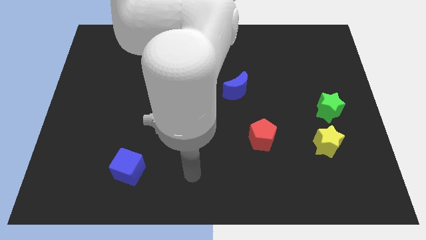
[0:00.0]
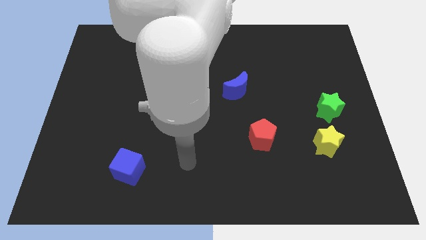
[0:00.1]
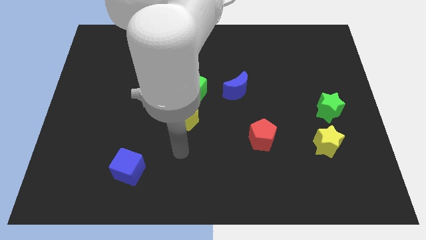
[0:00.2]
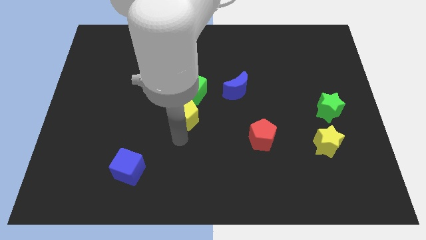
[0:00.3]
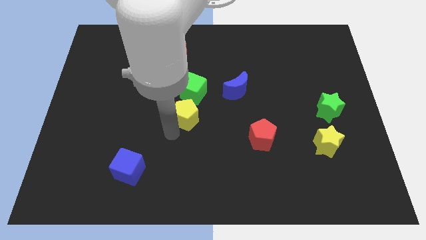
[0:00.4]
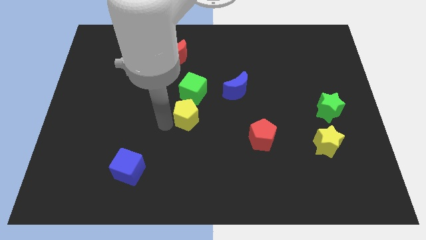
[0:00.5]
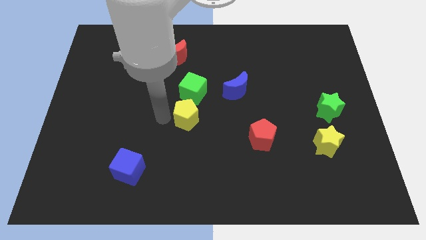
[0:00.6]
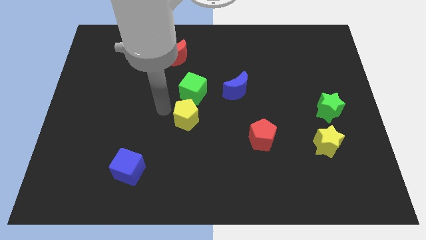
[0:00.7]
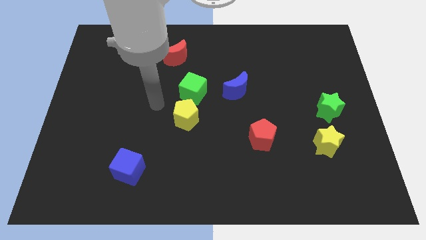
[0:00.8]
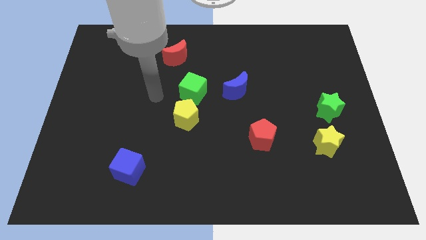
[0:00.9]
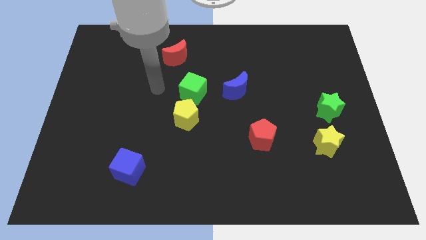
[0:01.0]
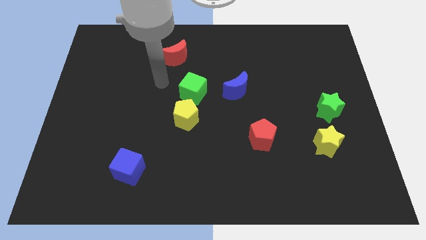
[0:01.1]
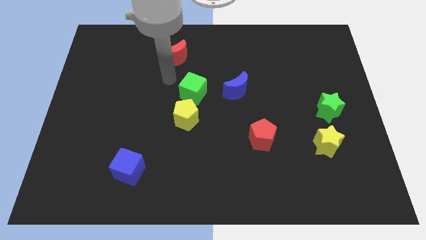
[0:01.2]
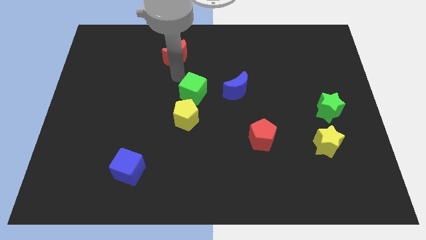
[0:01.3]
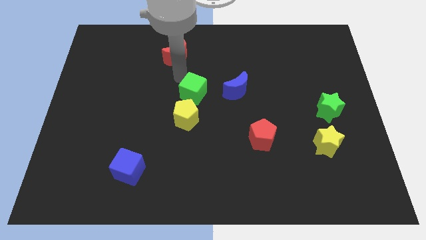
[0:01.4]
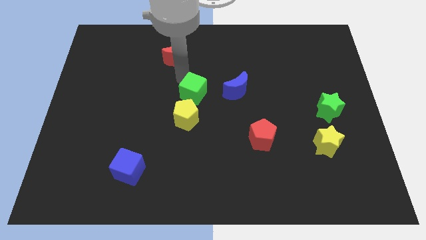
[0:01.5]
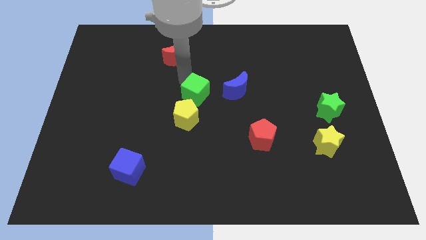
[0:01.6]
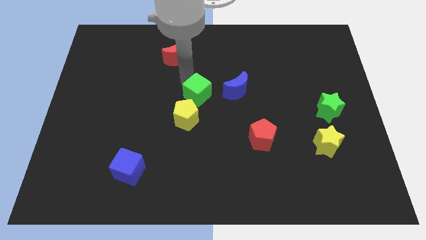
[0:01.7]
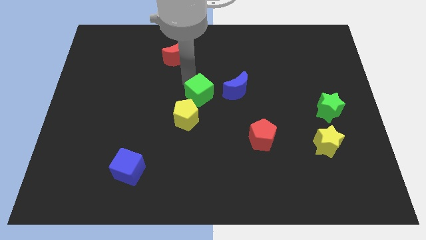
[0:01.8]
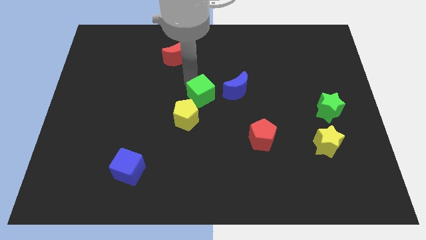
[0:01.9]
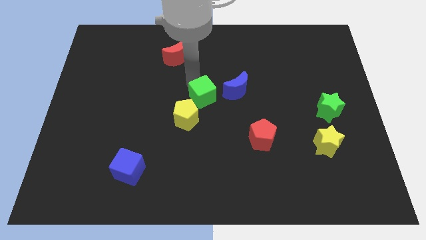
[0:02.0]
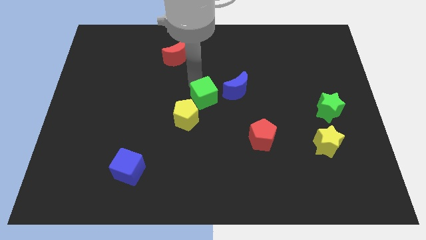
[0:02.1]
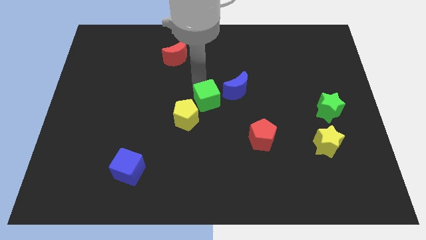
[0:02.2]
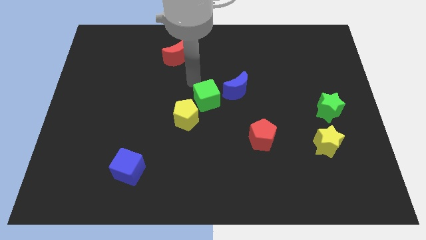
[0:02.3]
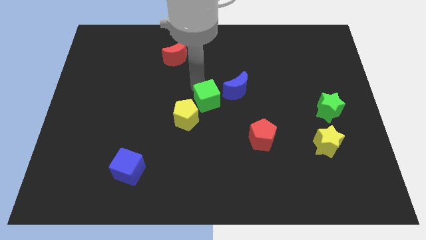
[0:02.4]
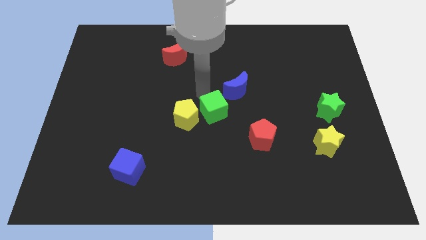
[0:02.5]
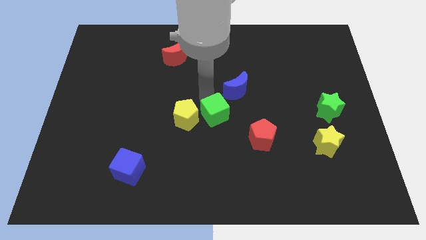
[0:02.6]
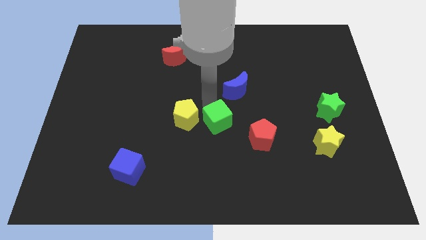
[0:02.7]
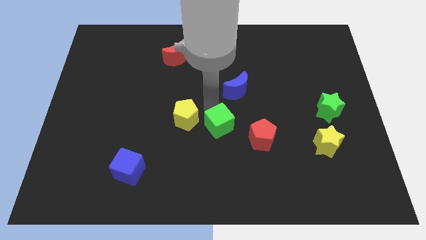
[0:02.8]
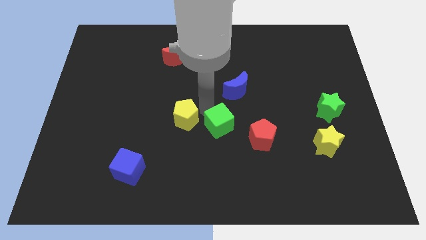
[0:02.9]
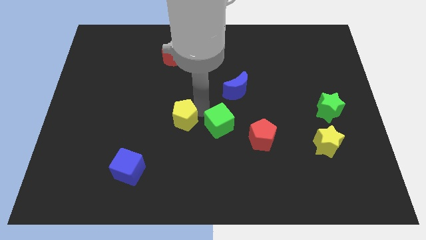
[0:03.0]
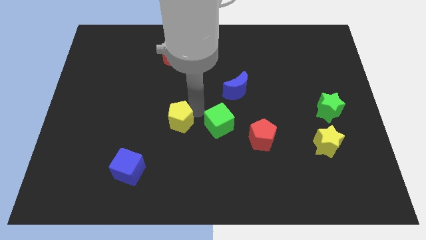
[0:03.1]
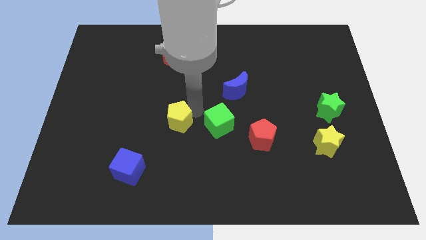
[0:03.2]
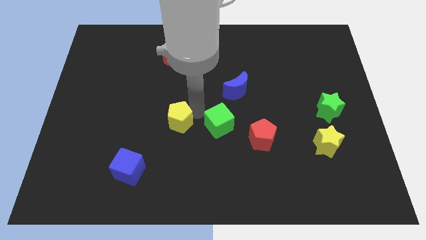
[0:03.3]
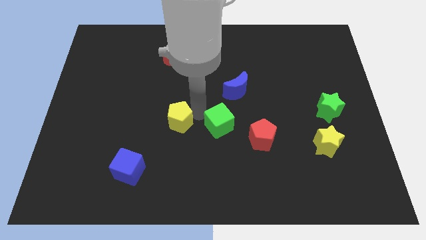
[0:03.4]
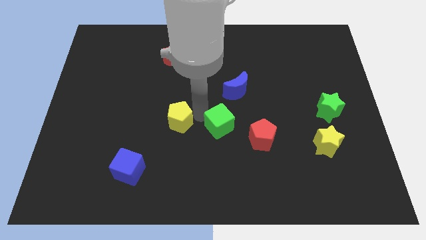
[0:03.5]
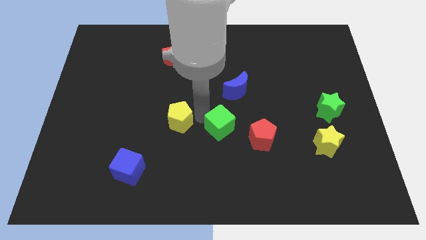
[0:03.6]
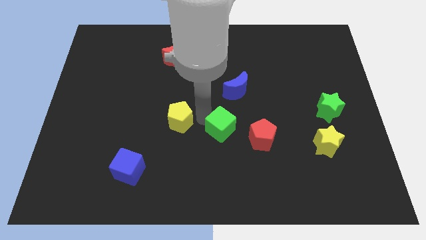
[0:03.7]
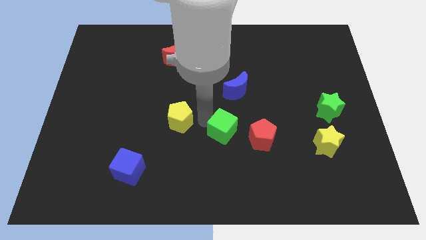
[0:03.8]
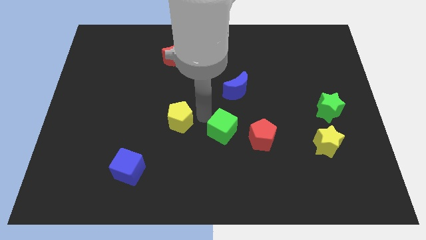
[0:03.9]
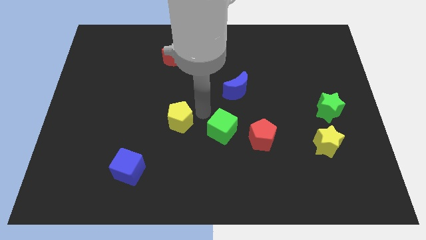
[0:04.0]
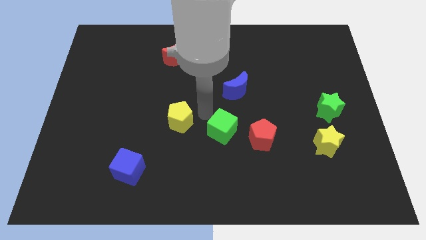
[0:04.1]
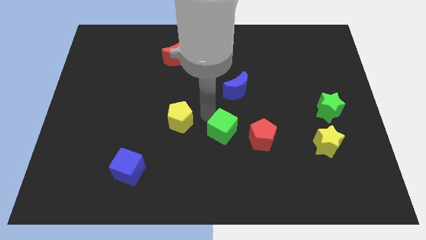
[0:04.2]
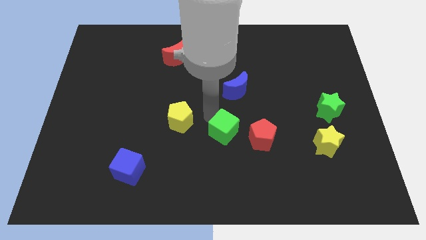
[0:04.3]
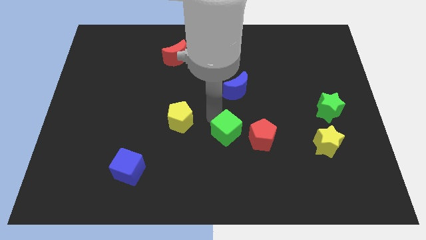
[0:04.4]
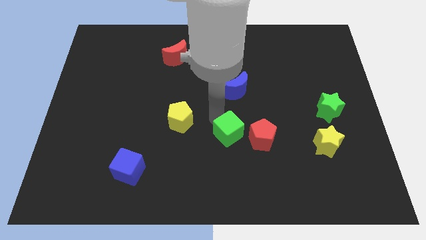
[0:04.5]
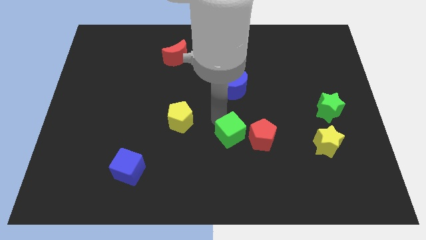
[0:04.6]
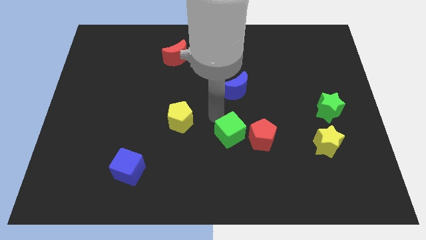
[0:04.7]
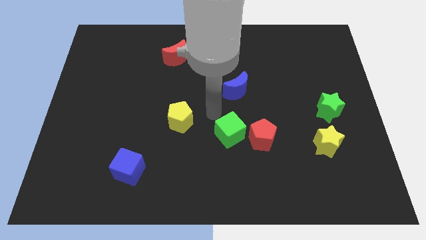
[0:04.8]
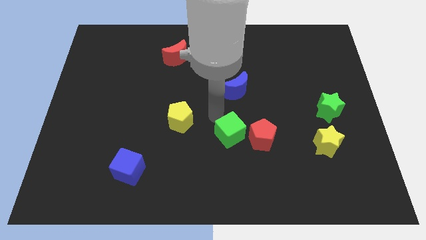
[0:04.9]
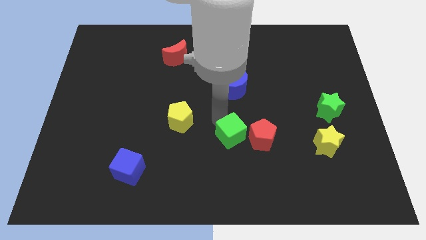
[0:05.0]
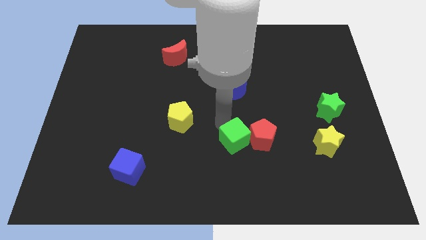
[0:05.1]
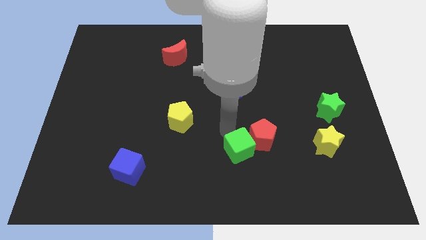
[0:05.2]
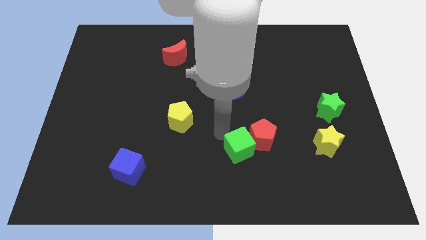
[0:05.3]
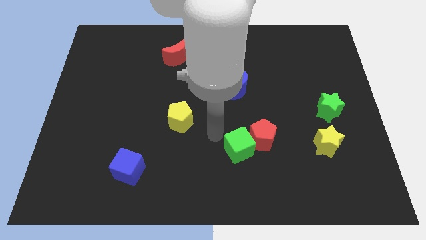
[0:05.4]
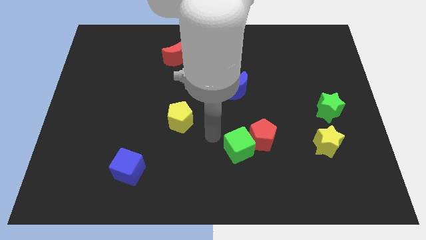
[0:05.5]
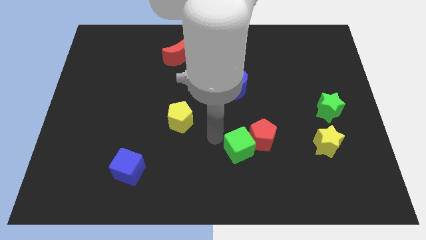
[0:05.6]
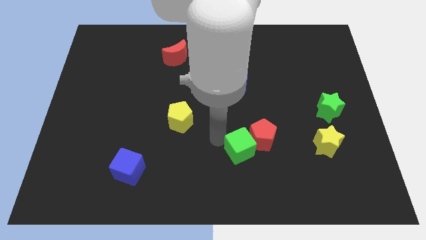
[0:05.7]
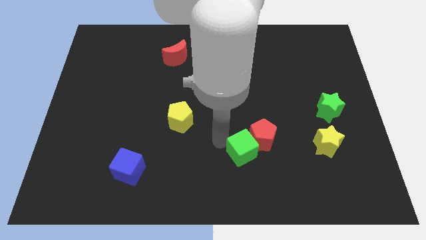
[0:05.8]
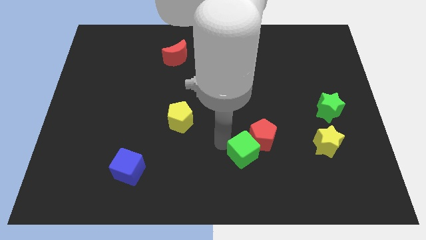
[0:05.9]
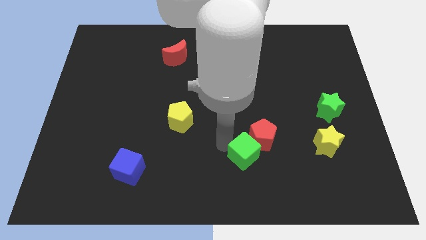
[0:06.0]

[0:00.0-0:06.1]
push the green cube down and right diagonally

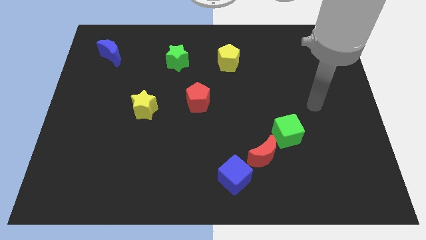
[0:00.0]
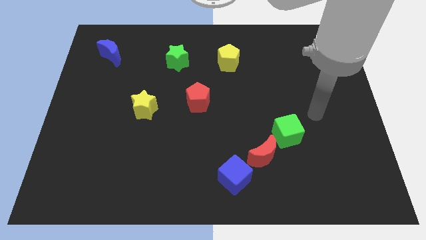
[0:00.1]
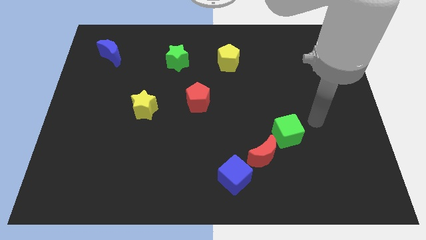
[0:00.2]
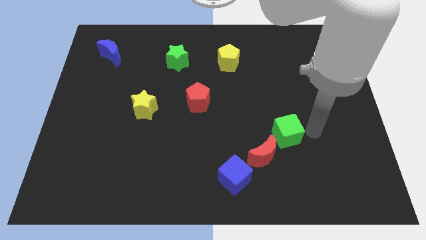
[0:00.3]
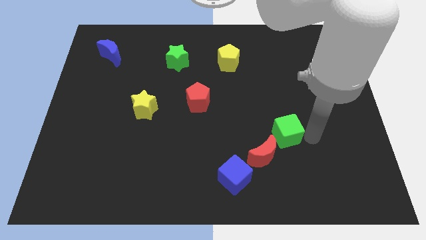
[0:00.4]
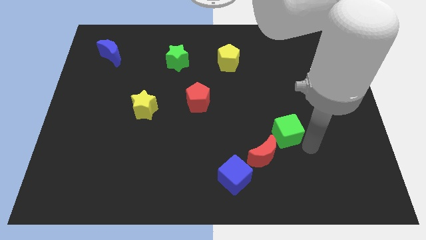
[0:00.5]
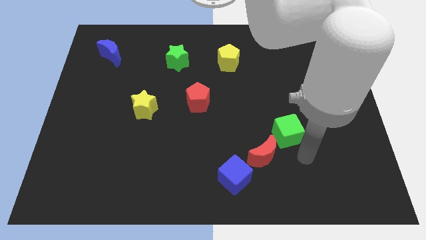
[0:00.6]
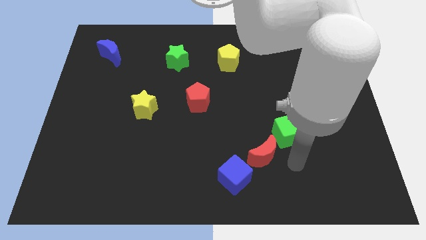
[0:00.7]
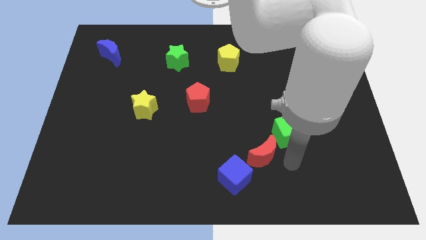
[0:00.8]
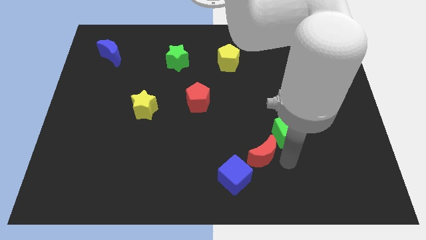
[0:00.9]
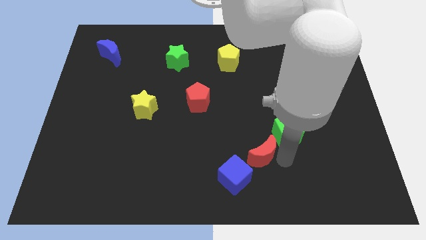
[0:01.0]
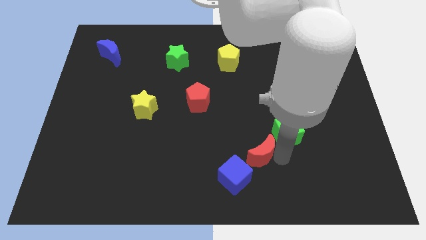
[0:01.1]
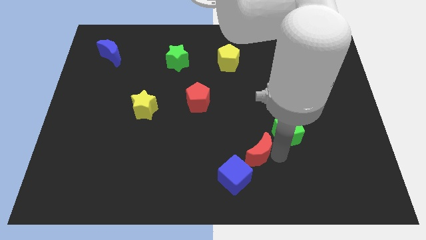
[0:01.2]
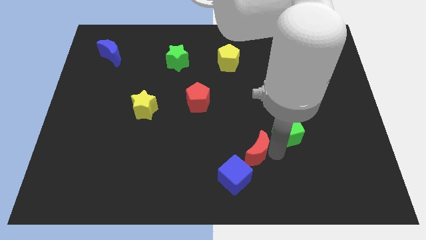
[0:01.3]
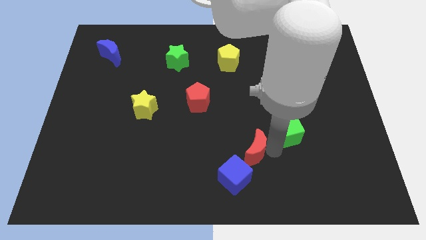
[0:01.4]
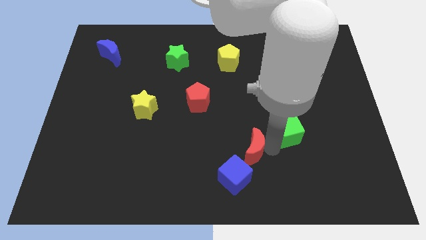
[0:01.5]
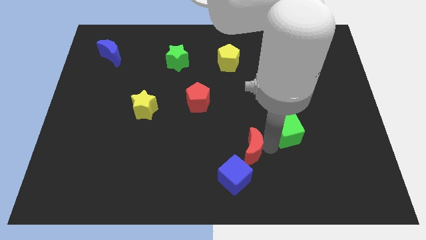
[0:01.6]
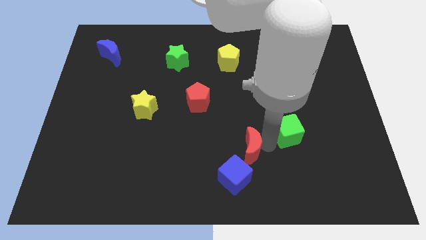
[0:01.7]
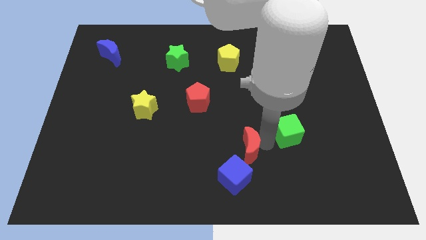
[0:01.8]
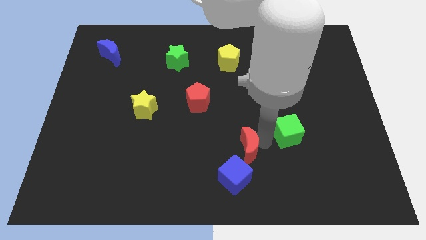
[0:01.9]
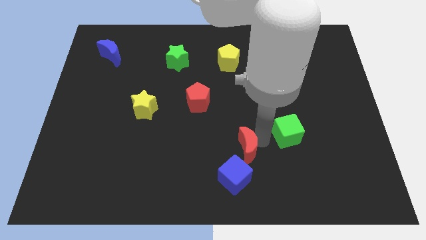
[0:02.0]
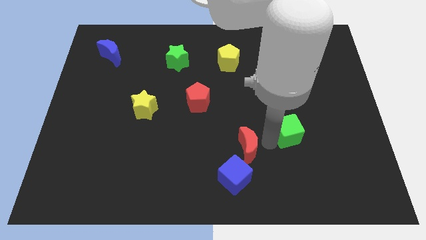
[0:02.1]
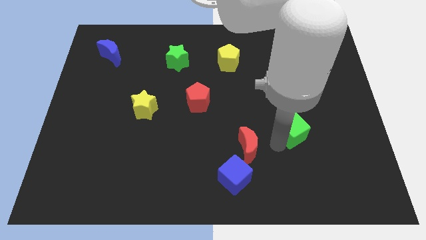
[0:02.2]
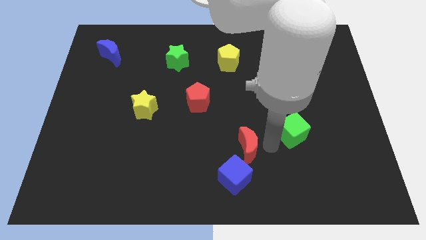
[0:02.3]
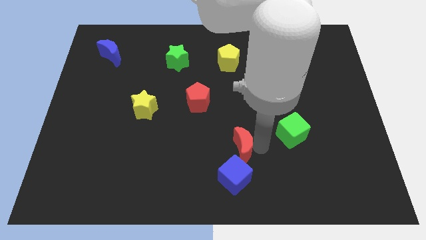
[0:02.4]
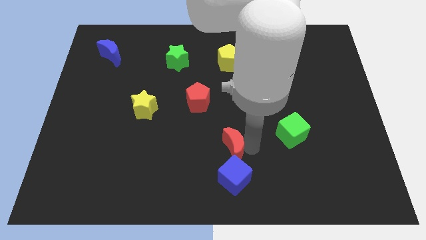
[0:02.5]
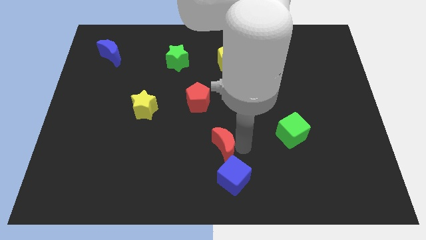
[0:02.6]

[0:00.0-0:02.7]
slide the red moon to the left somewhat
